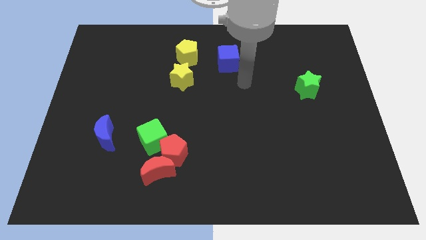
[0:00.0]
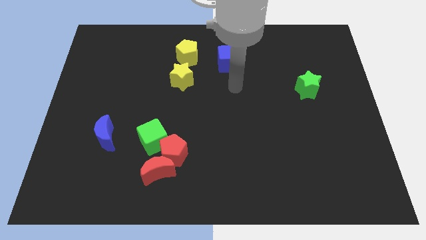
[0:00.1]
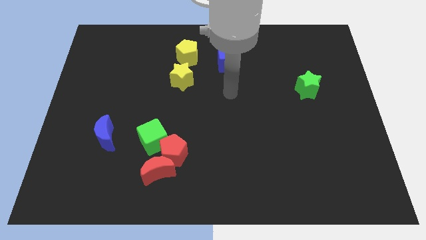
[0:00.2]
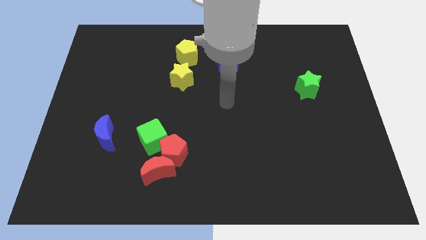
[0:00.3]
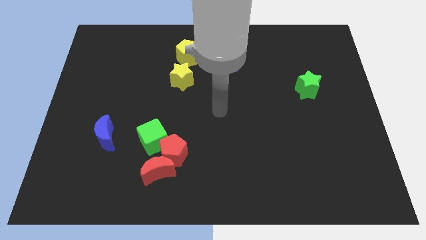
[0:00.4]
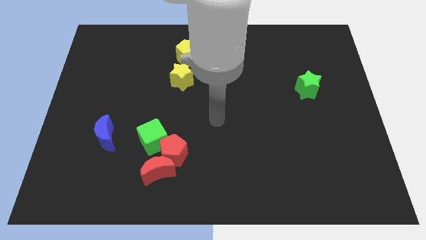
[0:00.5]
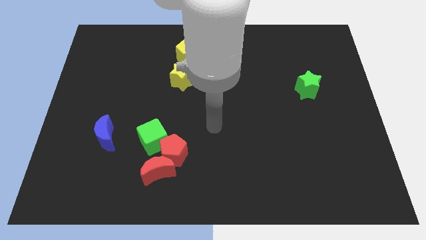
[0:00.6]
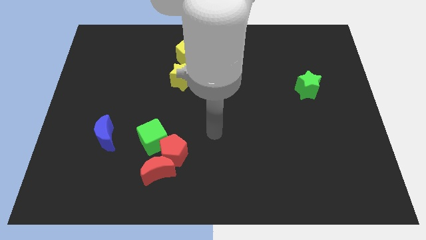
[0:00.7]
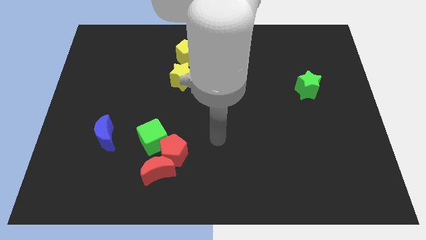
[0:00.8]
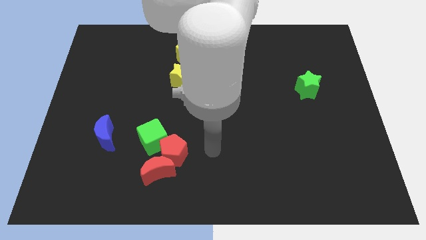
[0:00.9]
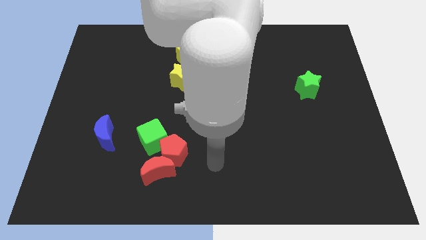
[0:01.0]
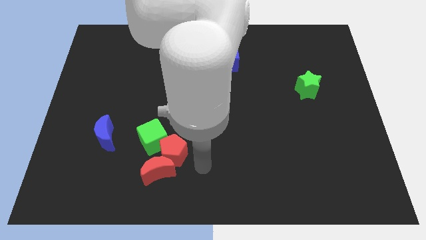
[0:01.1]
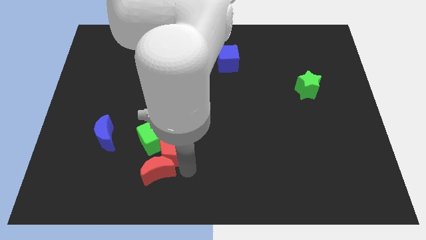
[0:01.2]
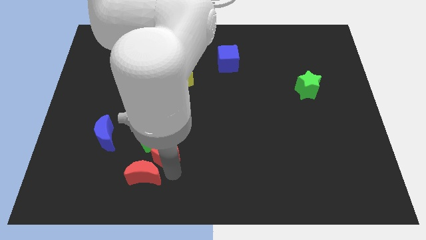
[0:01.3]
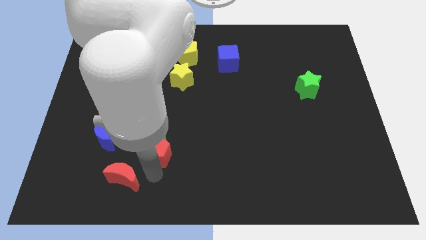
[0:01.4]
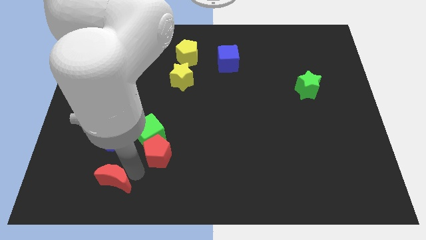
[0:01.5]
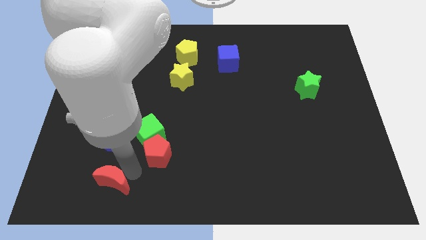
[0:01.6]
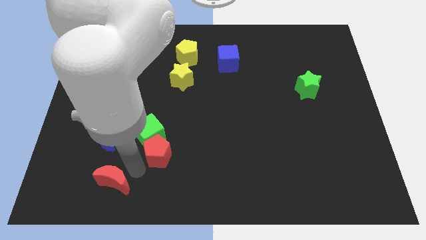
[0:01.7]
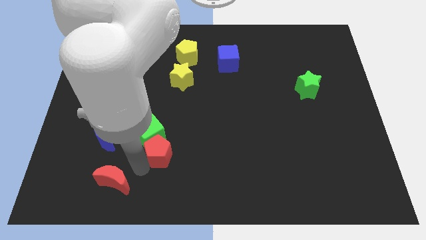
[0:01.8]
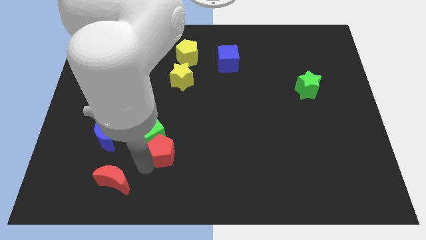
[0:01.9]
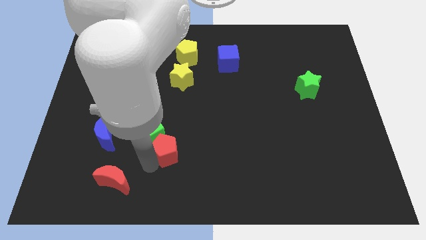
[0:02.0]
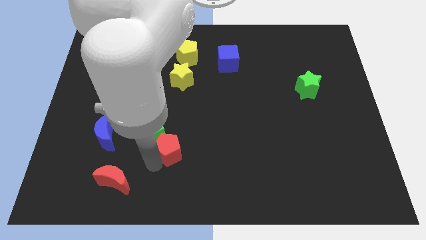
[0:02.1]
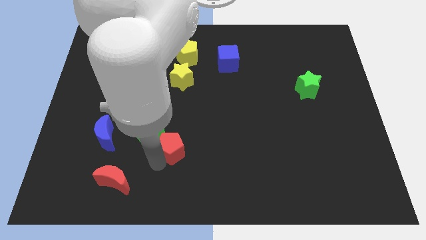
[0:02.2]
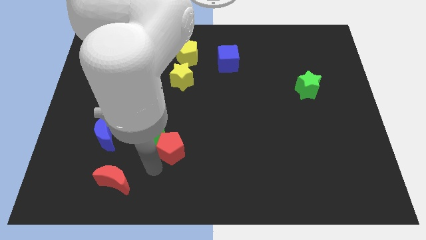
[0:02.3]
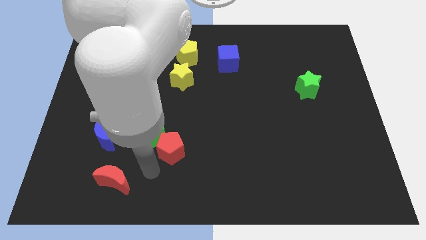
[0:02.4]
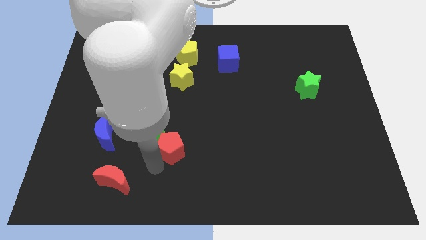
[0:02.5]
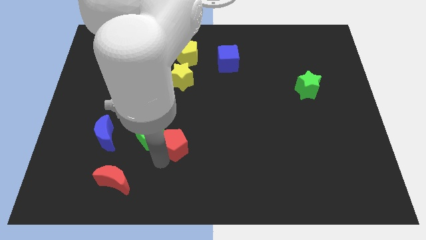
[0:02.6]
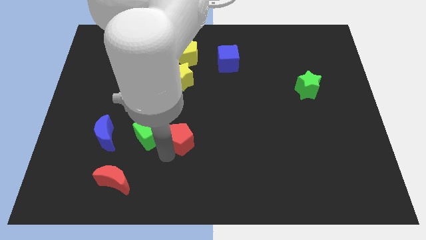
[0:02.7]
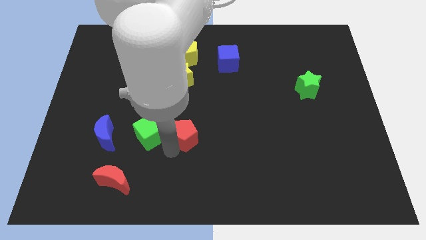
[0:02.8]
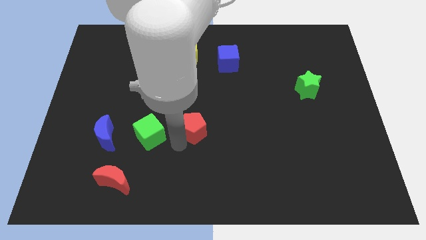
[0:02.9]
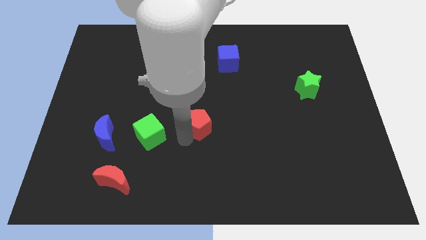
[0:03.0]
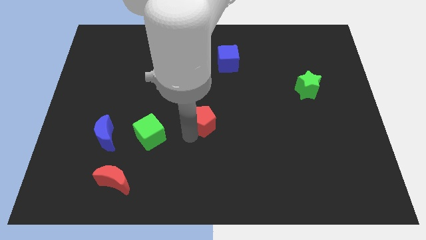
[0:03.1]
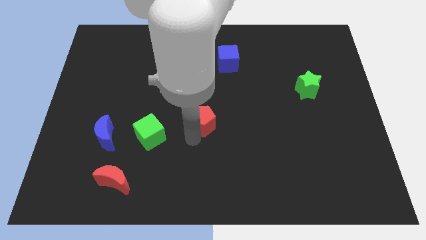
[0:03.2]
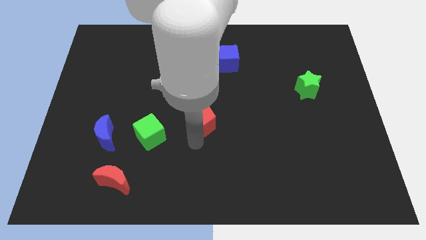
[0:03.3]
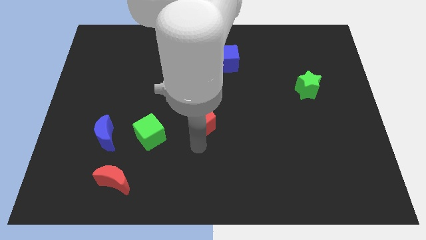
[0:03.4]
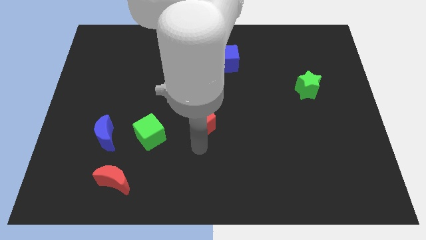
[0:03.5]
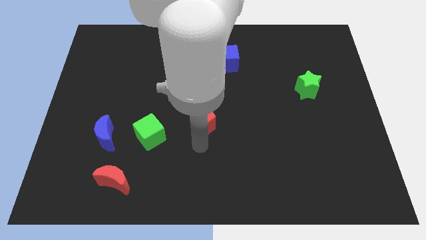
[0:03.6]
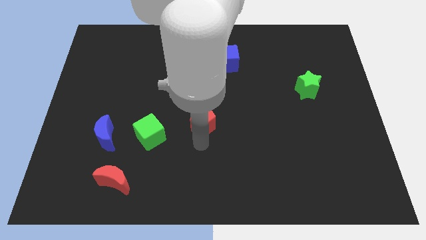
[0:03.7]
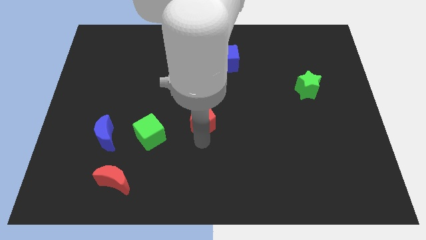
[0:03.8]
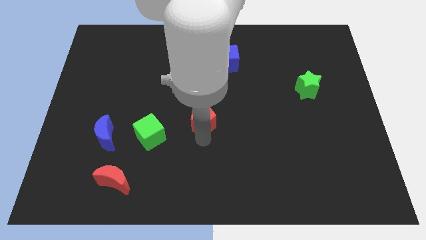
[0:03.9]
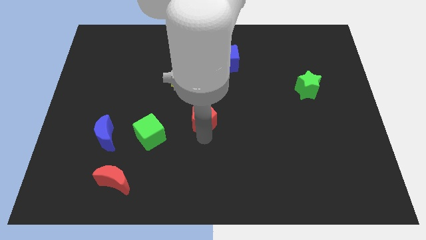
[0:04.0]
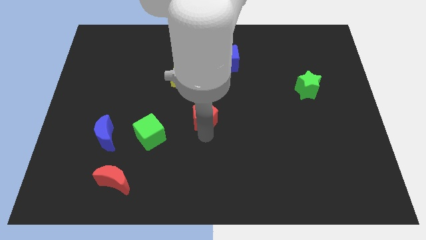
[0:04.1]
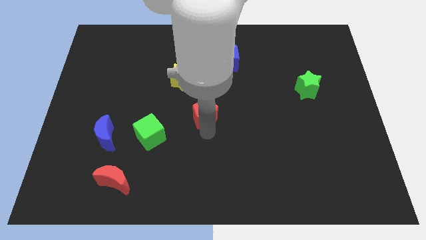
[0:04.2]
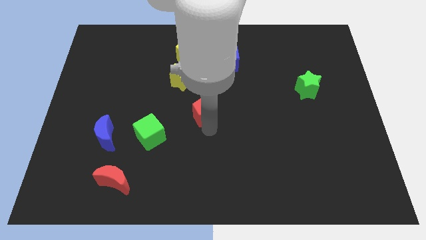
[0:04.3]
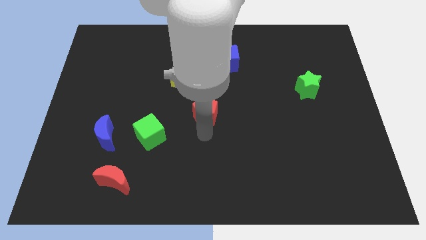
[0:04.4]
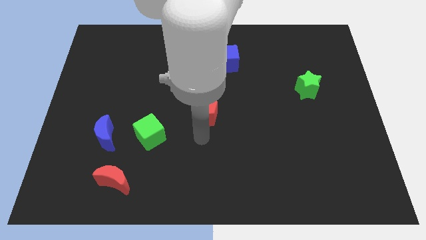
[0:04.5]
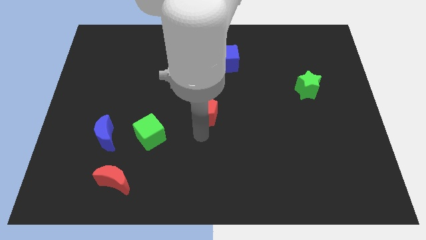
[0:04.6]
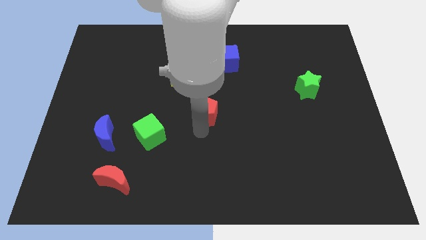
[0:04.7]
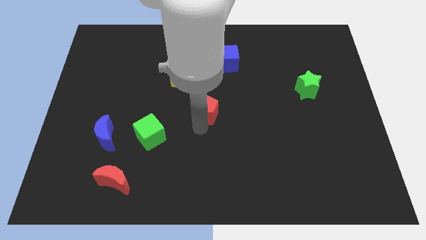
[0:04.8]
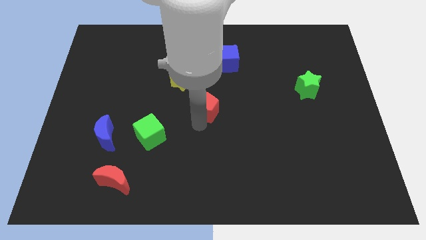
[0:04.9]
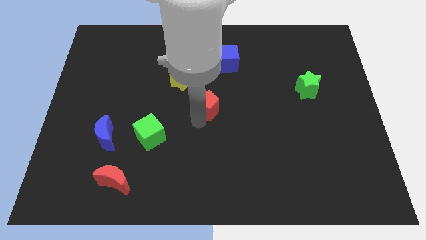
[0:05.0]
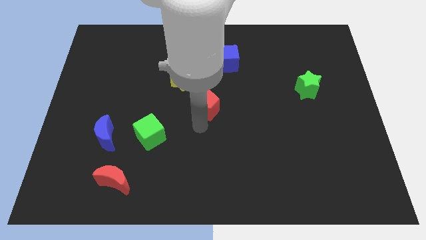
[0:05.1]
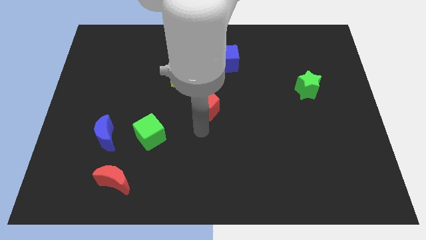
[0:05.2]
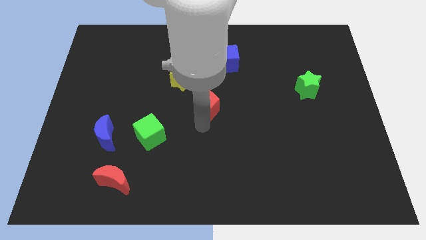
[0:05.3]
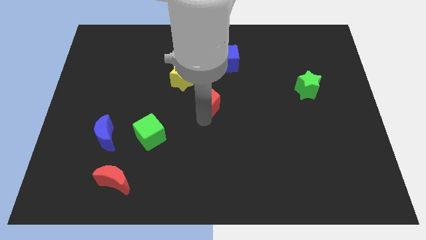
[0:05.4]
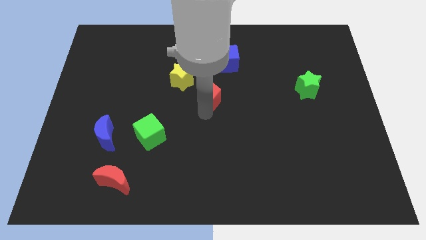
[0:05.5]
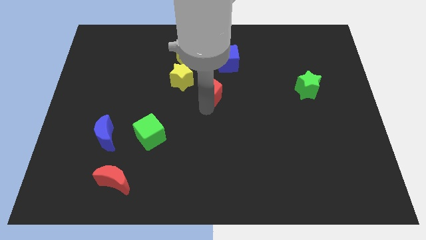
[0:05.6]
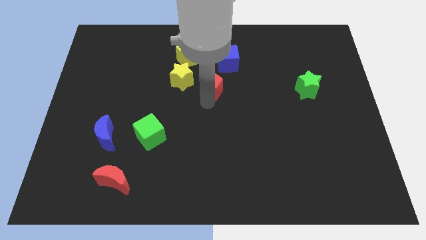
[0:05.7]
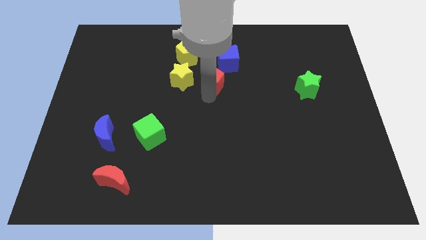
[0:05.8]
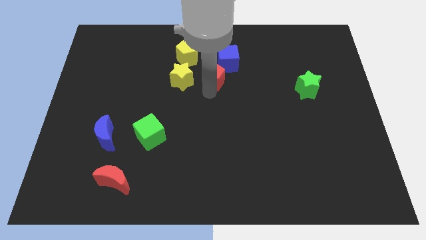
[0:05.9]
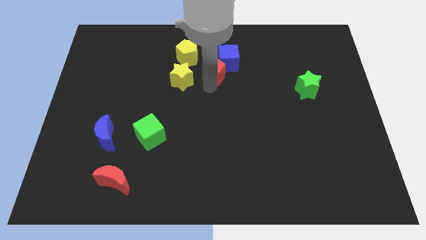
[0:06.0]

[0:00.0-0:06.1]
push the red pentagon towards the blue cube

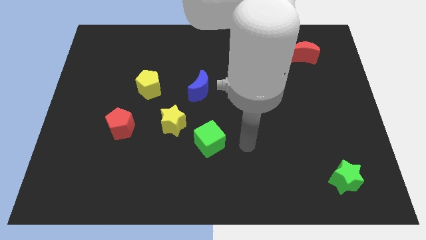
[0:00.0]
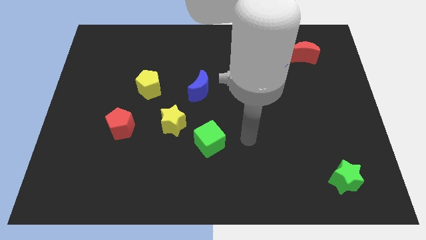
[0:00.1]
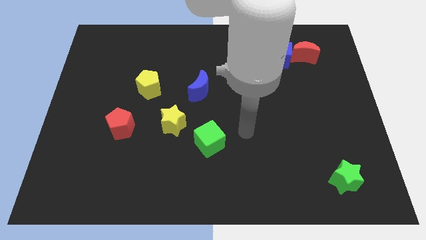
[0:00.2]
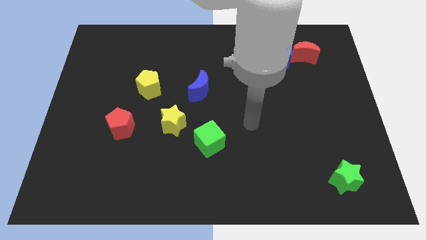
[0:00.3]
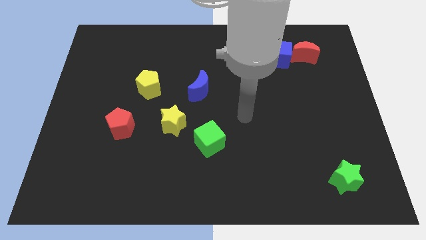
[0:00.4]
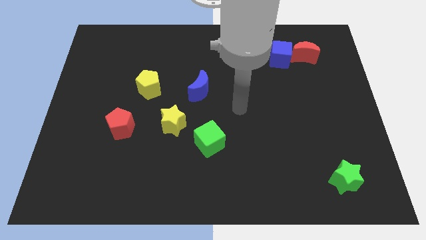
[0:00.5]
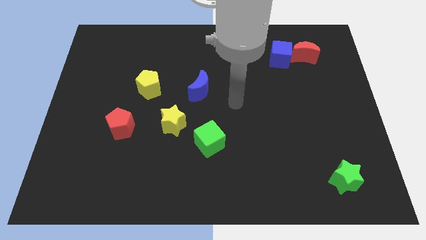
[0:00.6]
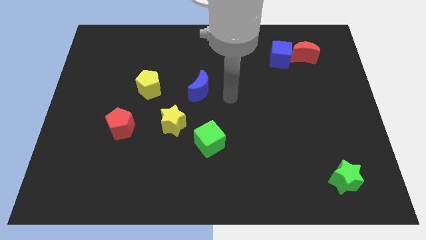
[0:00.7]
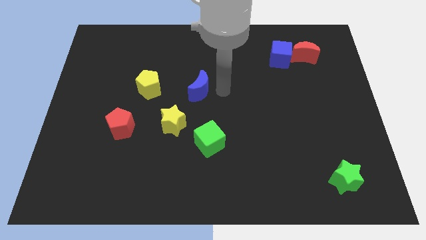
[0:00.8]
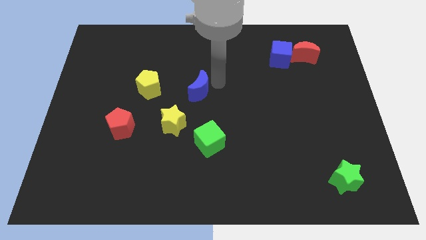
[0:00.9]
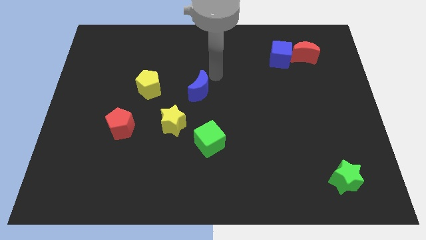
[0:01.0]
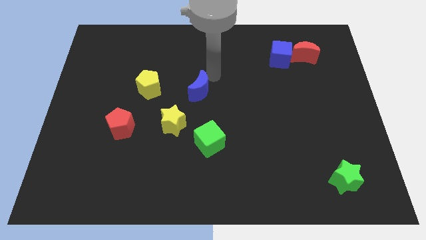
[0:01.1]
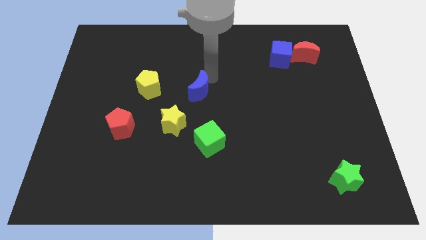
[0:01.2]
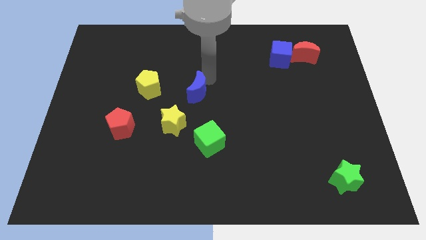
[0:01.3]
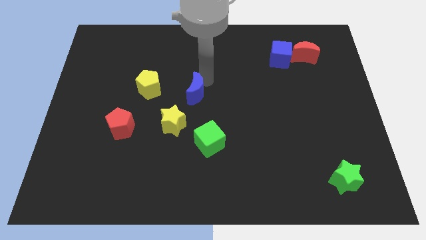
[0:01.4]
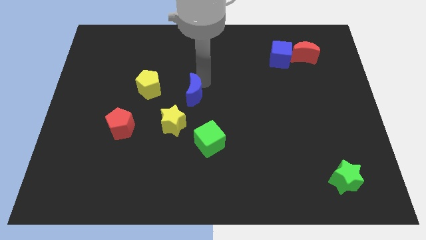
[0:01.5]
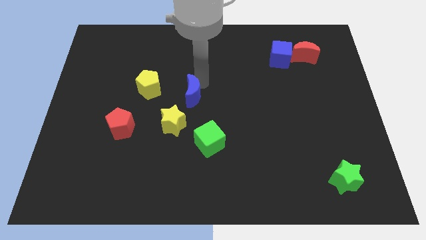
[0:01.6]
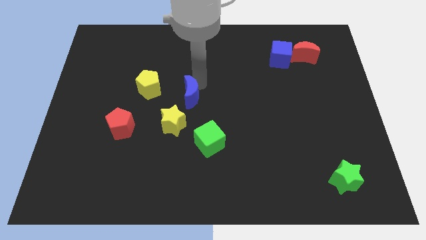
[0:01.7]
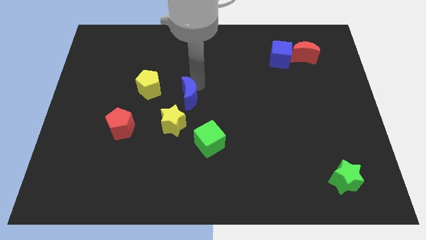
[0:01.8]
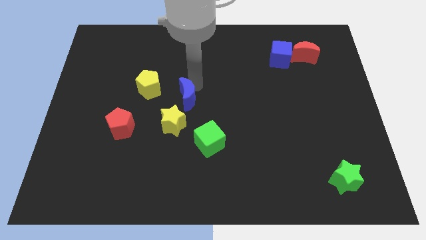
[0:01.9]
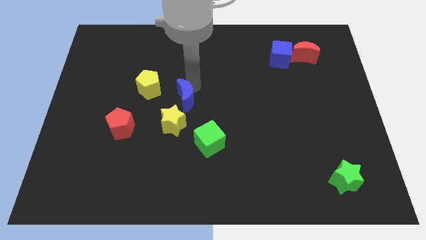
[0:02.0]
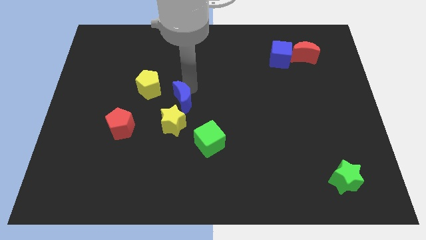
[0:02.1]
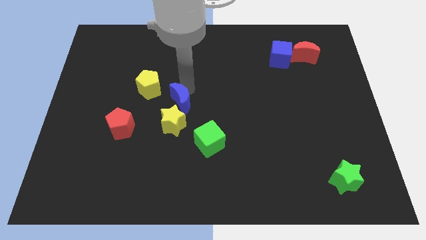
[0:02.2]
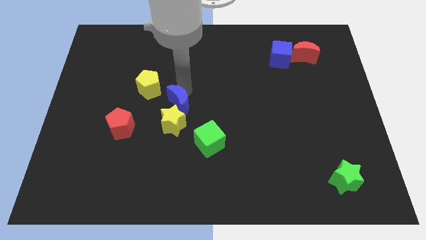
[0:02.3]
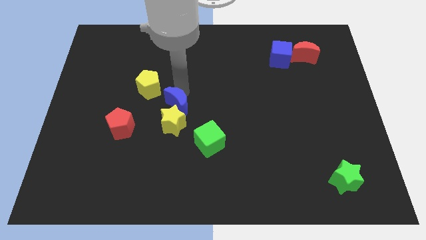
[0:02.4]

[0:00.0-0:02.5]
move the blue moon towards the yellow star
